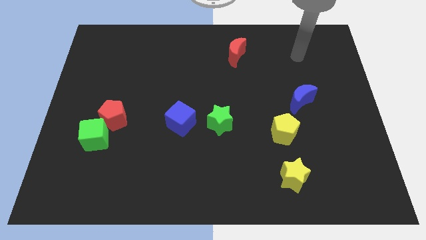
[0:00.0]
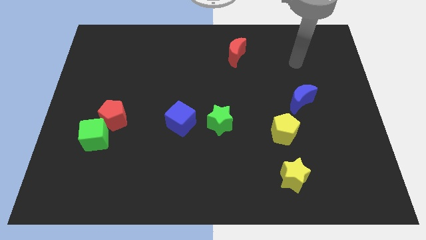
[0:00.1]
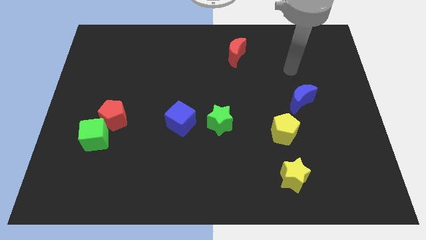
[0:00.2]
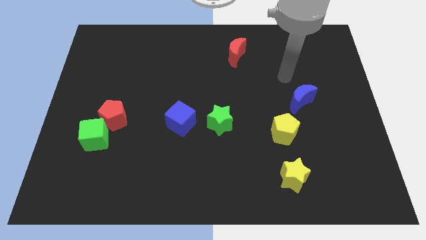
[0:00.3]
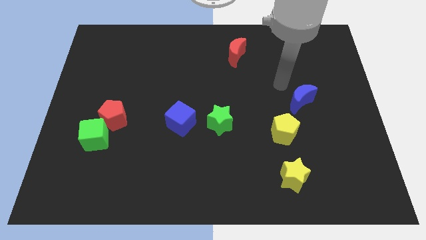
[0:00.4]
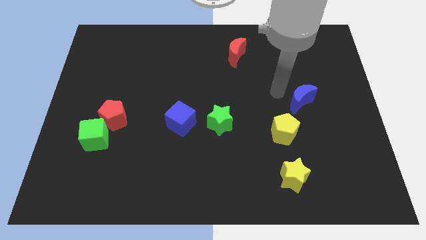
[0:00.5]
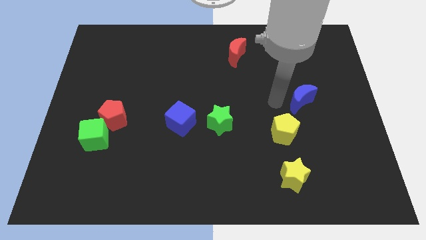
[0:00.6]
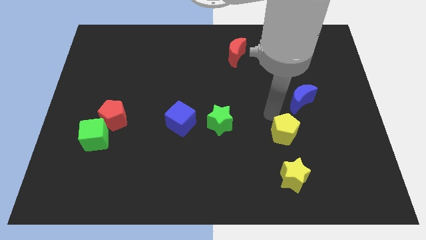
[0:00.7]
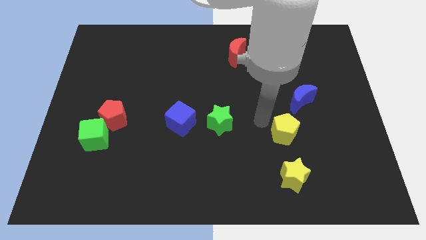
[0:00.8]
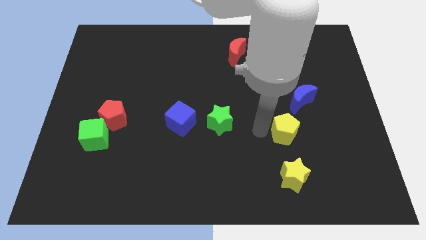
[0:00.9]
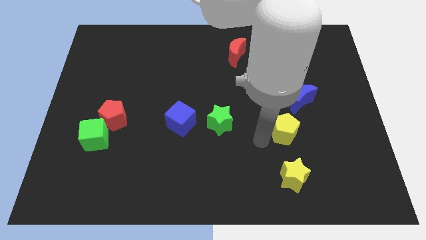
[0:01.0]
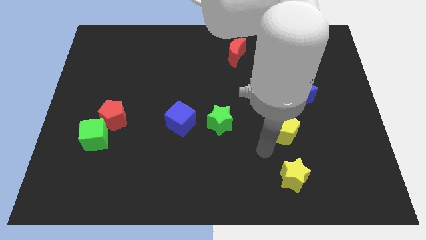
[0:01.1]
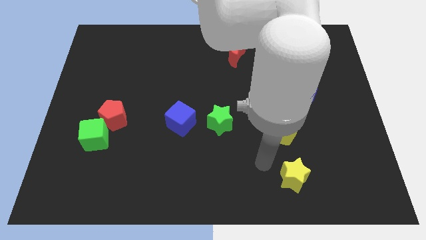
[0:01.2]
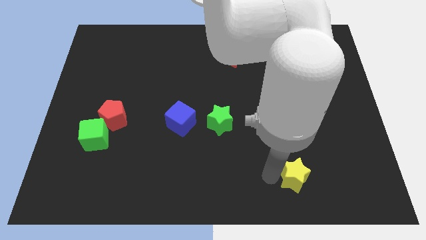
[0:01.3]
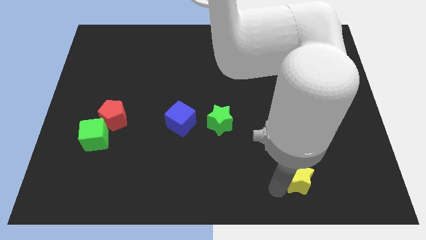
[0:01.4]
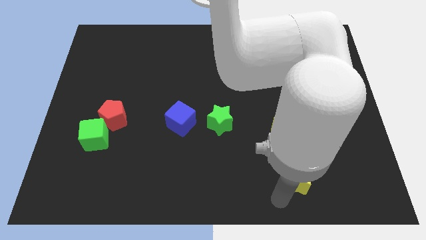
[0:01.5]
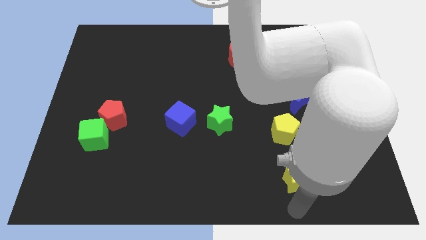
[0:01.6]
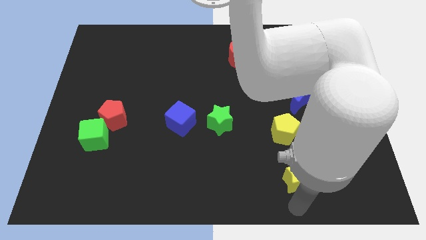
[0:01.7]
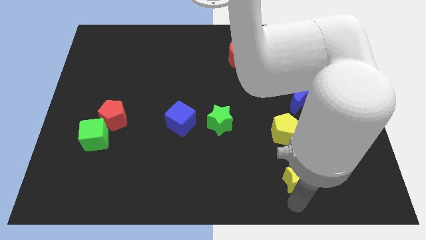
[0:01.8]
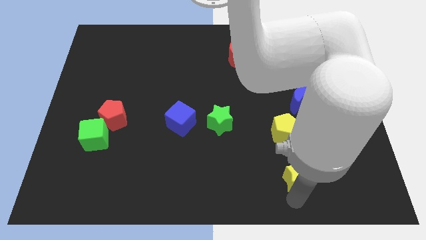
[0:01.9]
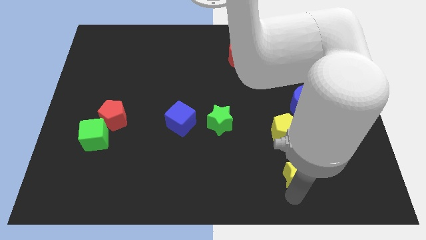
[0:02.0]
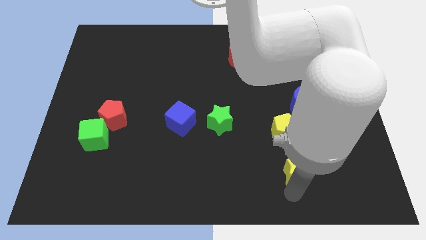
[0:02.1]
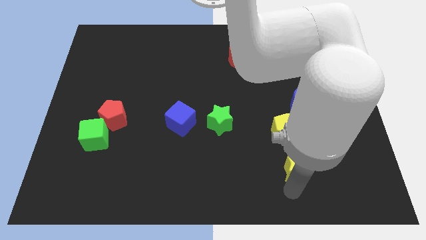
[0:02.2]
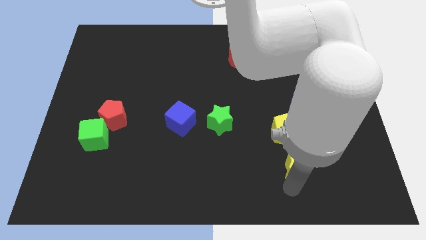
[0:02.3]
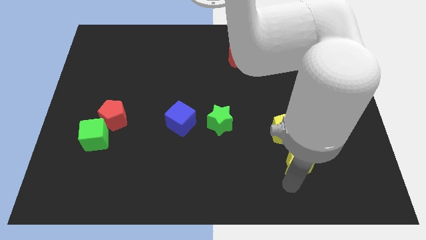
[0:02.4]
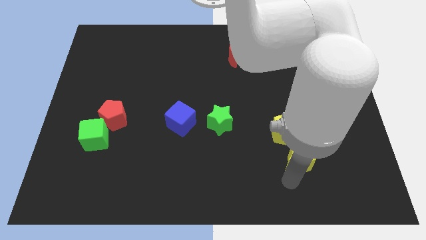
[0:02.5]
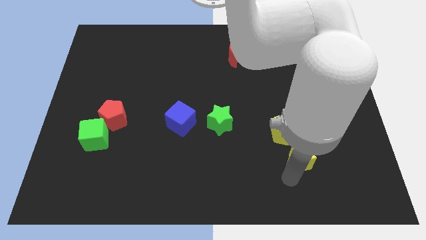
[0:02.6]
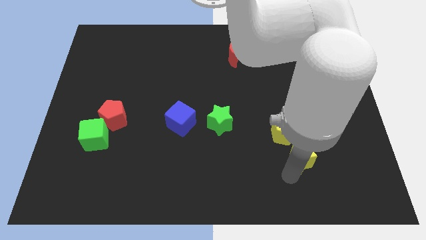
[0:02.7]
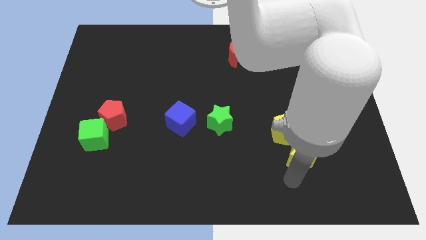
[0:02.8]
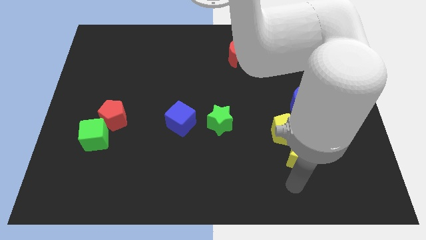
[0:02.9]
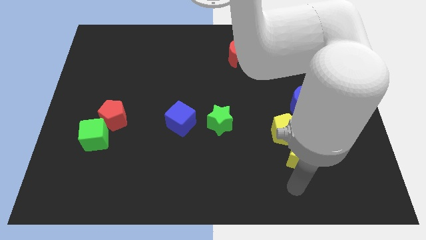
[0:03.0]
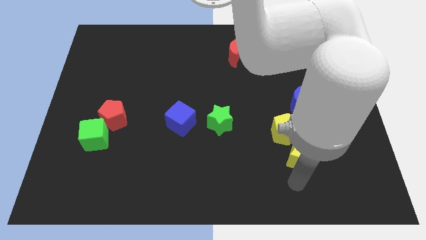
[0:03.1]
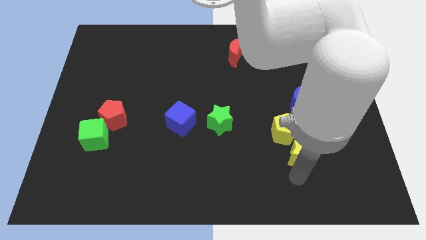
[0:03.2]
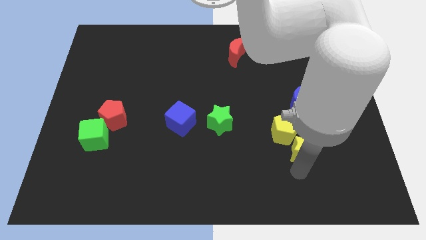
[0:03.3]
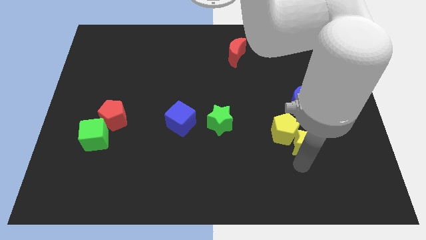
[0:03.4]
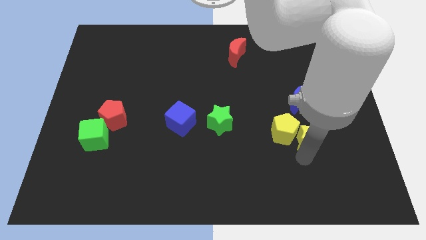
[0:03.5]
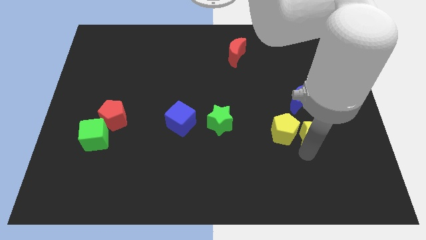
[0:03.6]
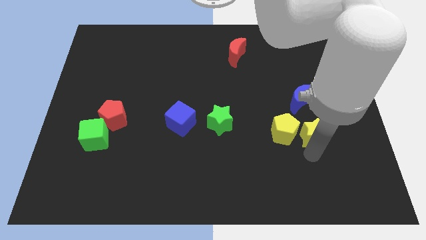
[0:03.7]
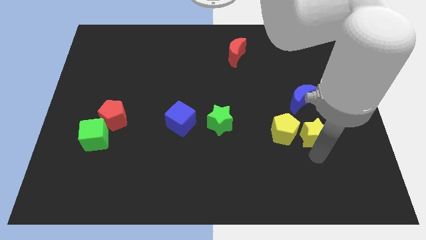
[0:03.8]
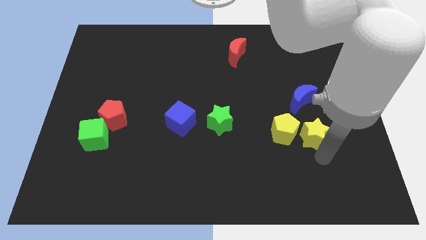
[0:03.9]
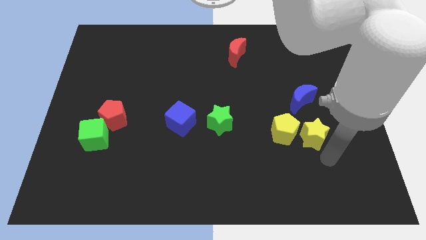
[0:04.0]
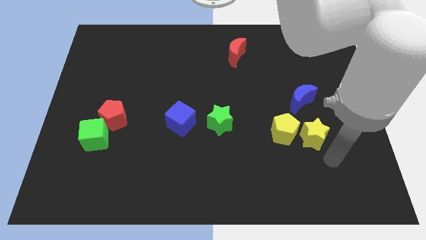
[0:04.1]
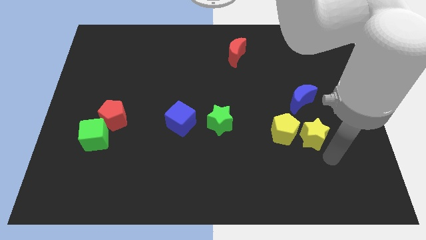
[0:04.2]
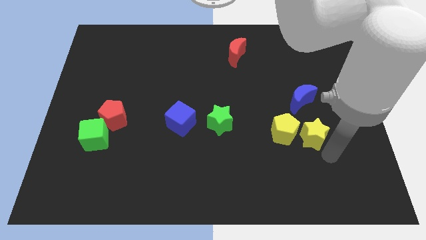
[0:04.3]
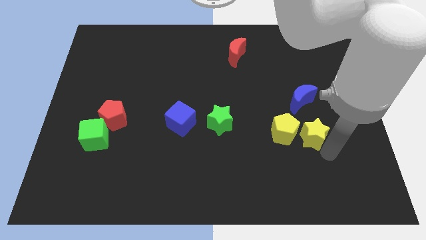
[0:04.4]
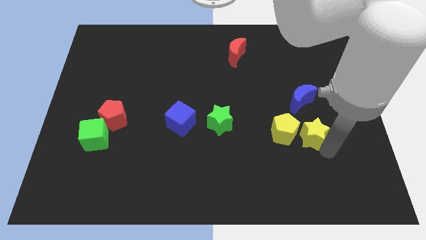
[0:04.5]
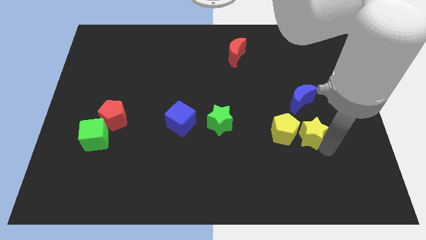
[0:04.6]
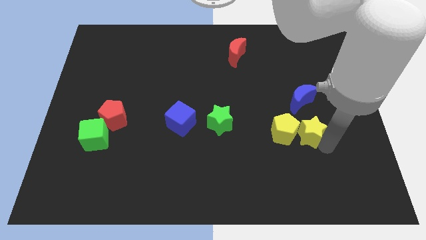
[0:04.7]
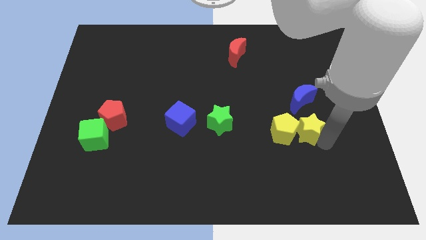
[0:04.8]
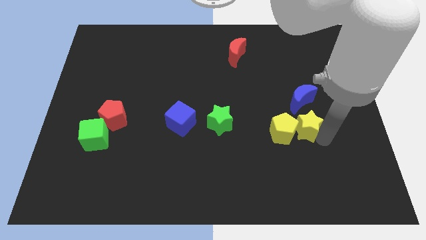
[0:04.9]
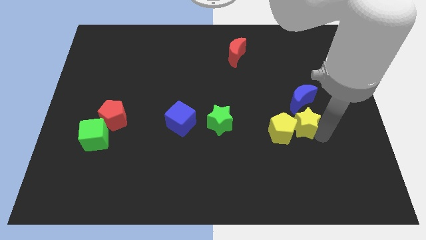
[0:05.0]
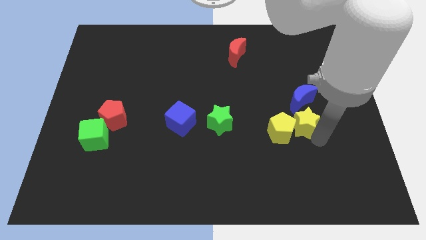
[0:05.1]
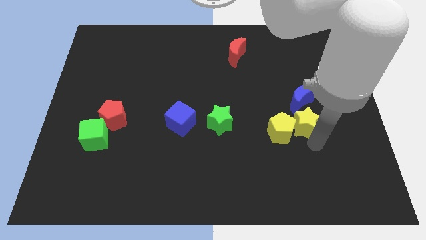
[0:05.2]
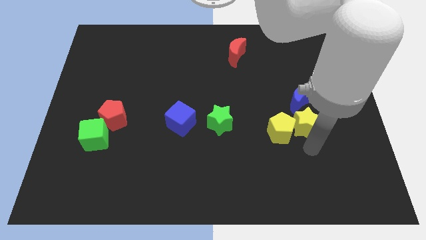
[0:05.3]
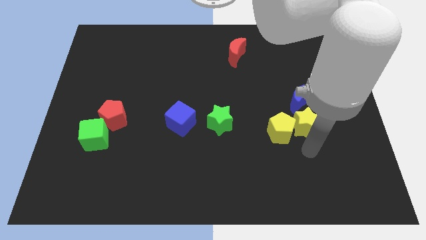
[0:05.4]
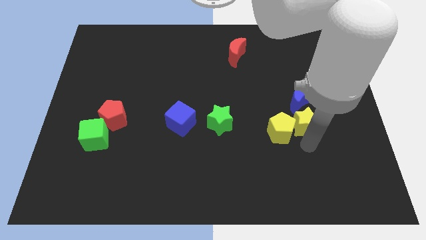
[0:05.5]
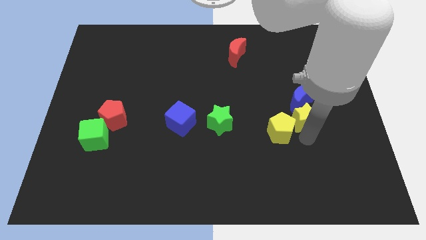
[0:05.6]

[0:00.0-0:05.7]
put the yellow star close to the blue moon

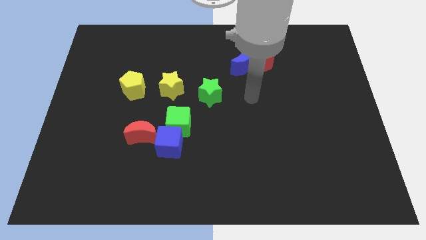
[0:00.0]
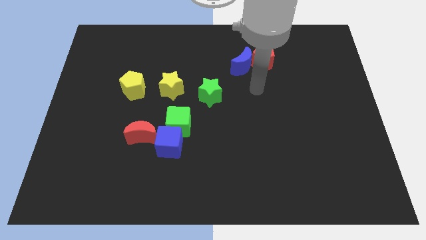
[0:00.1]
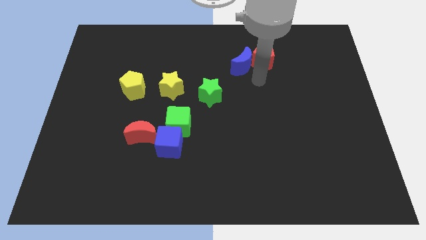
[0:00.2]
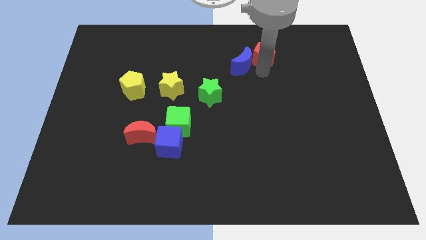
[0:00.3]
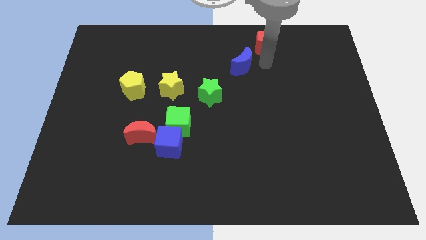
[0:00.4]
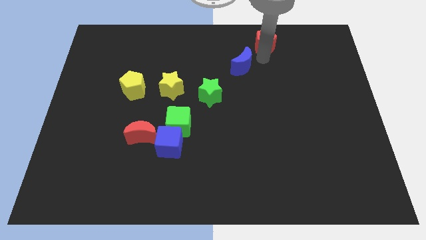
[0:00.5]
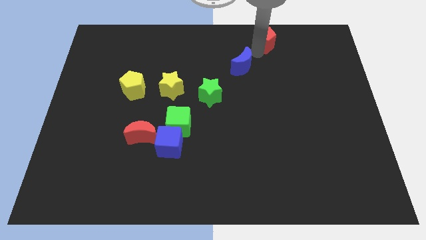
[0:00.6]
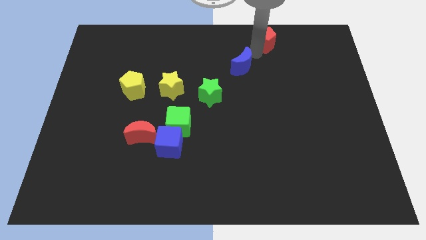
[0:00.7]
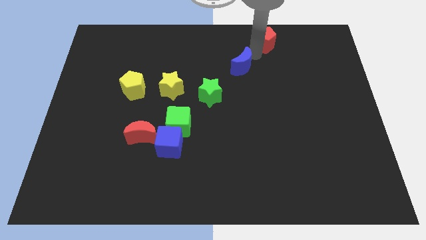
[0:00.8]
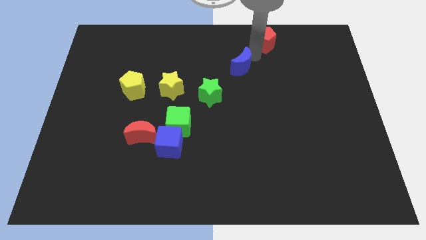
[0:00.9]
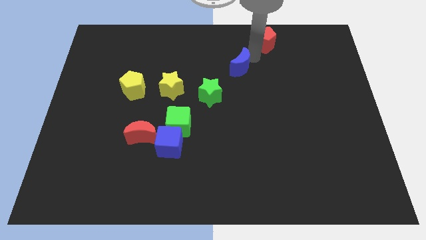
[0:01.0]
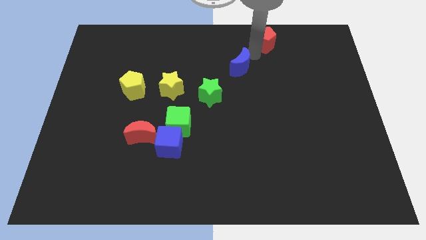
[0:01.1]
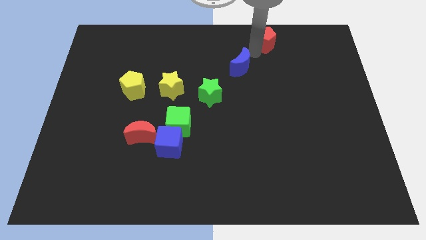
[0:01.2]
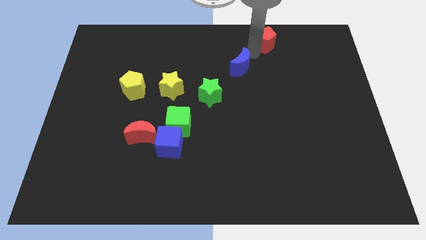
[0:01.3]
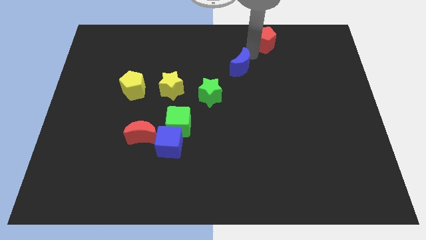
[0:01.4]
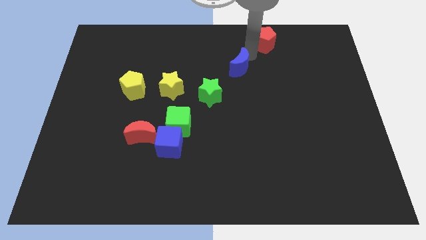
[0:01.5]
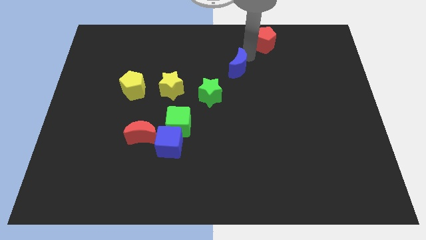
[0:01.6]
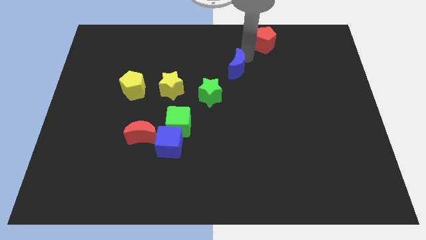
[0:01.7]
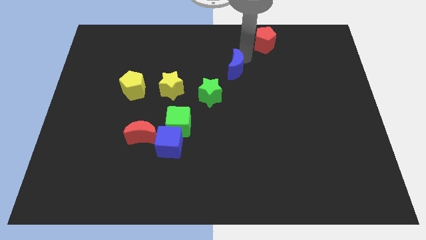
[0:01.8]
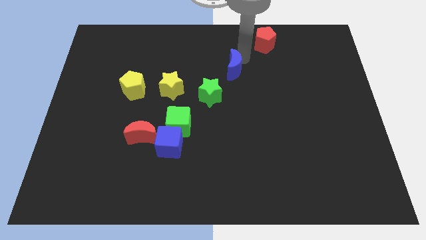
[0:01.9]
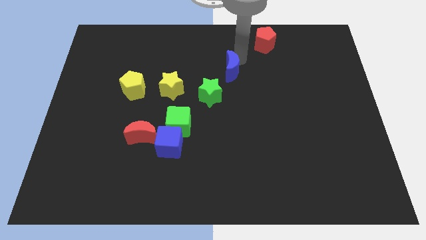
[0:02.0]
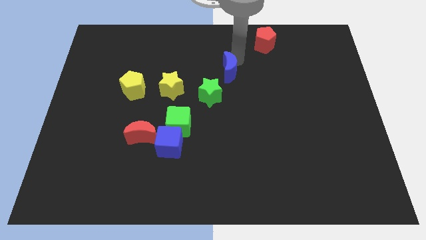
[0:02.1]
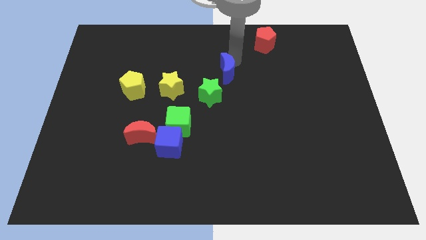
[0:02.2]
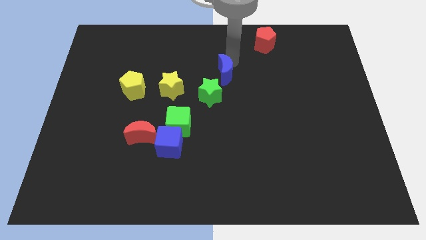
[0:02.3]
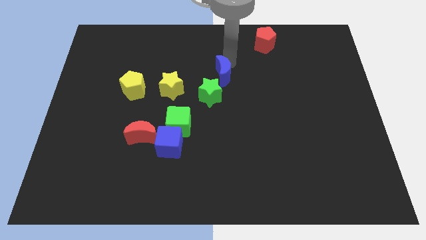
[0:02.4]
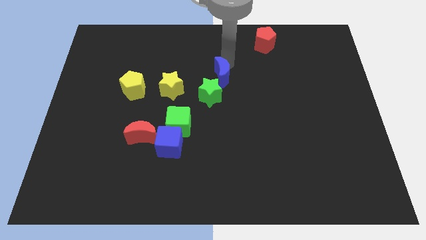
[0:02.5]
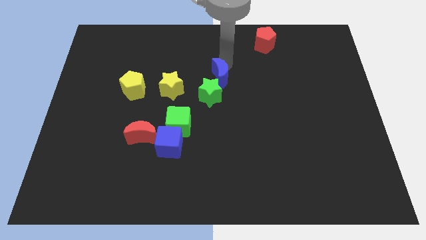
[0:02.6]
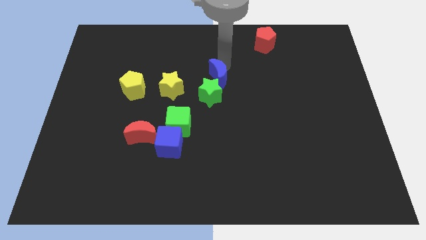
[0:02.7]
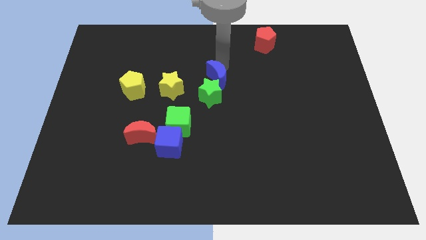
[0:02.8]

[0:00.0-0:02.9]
push the blue moon towards the green star
